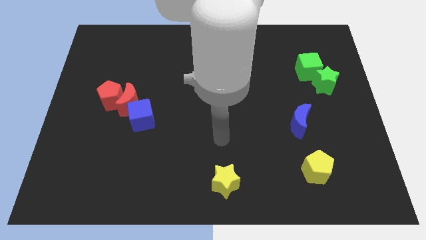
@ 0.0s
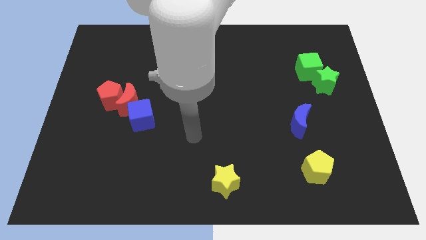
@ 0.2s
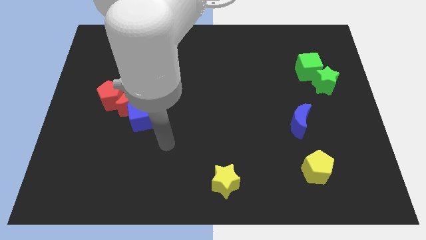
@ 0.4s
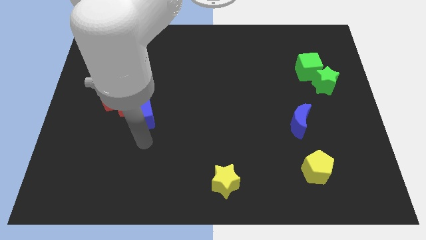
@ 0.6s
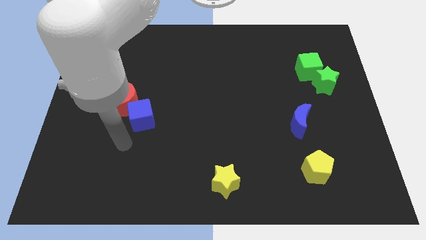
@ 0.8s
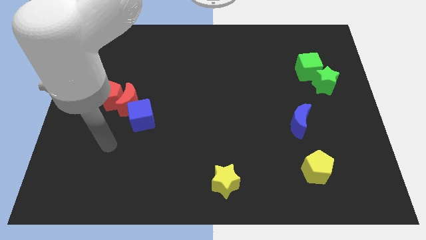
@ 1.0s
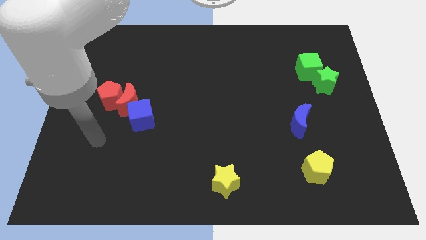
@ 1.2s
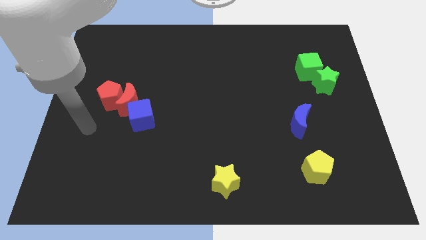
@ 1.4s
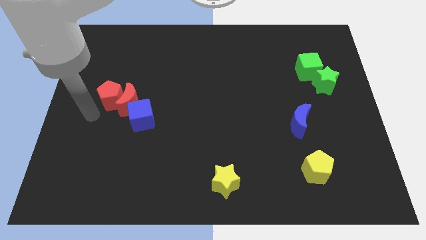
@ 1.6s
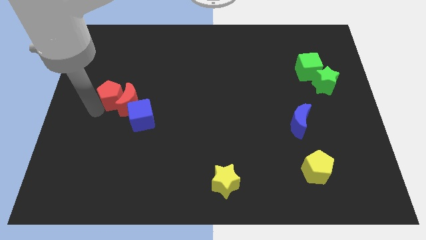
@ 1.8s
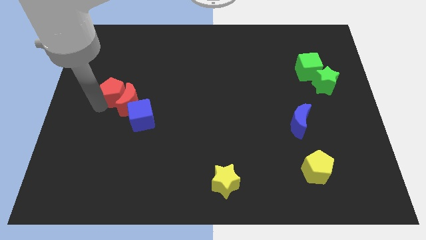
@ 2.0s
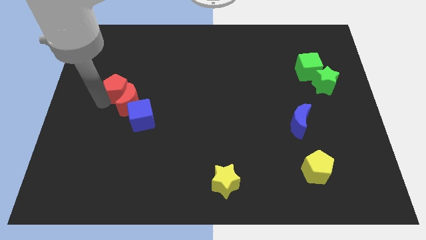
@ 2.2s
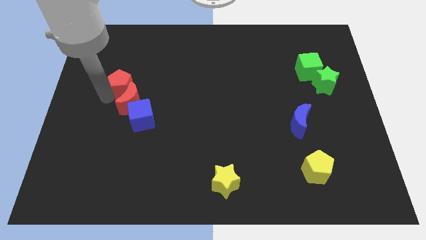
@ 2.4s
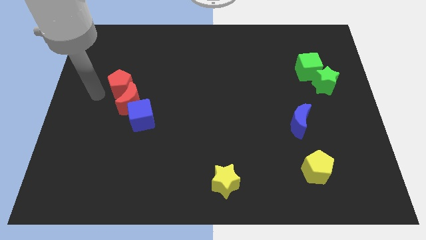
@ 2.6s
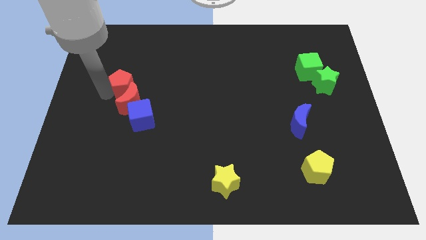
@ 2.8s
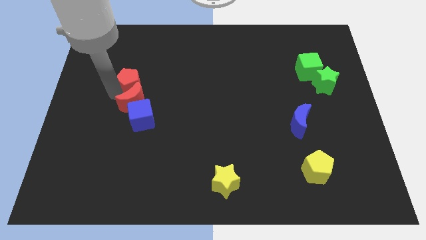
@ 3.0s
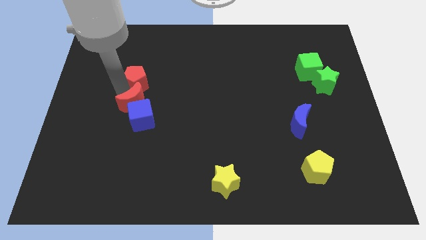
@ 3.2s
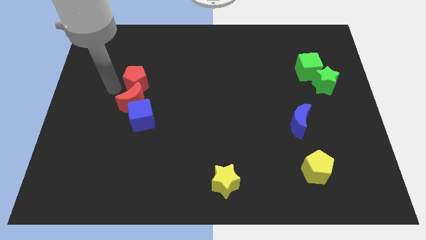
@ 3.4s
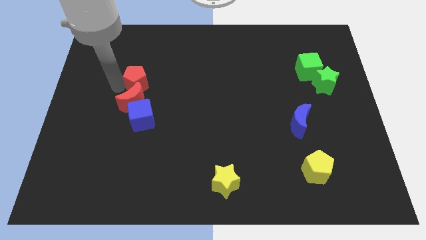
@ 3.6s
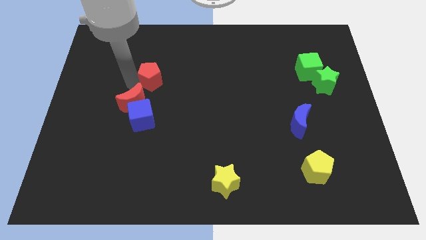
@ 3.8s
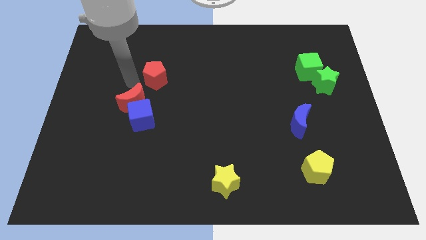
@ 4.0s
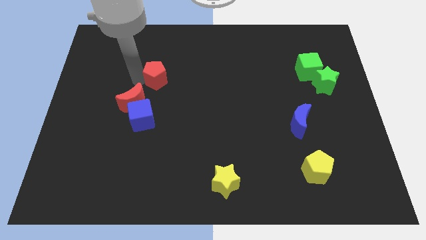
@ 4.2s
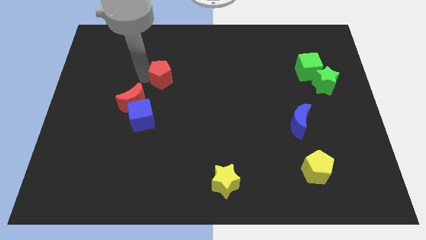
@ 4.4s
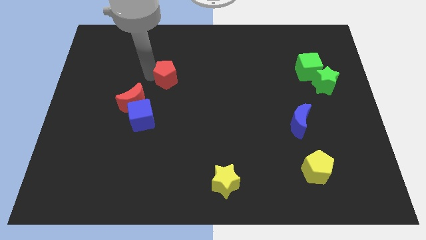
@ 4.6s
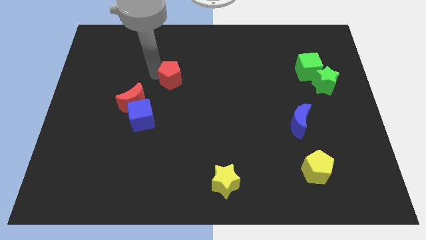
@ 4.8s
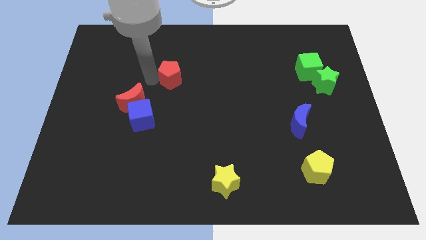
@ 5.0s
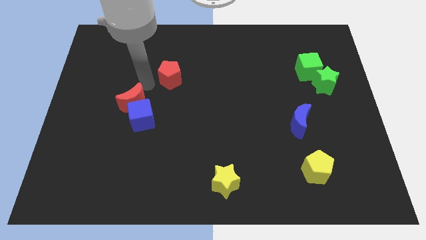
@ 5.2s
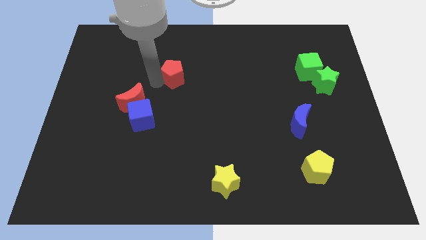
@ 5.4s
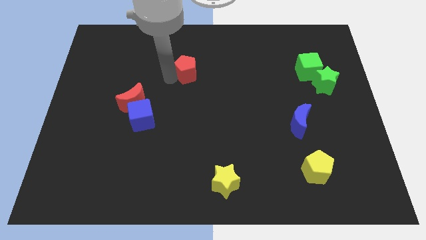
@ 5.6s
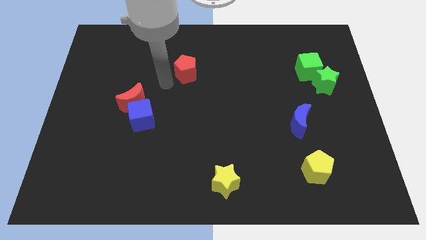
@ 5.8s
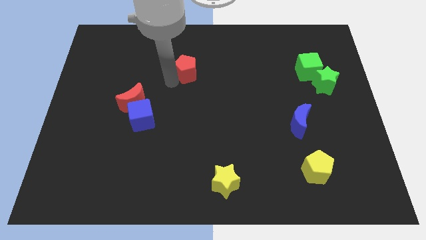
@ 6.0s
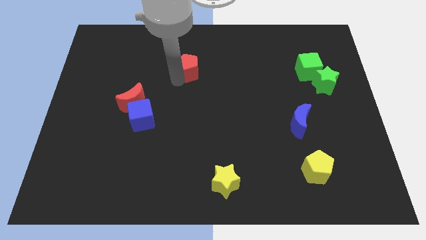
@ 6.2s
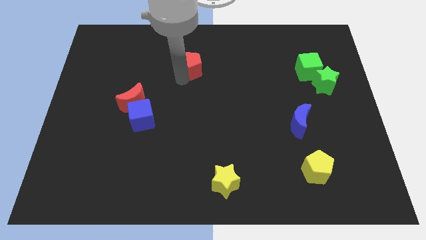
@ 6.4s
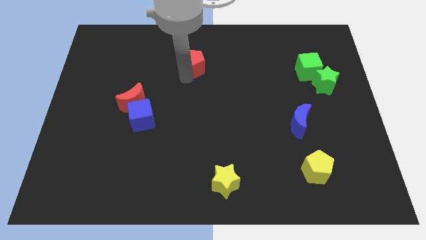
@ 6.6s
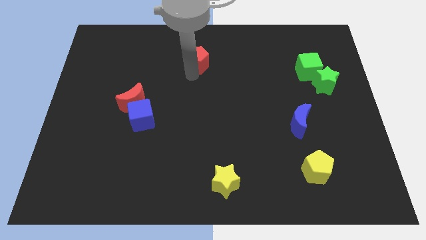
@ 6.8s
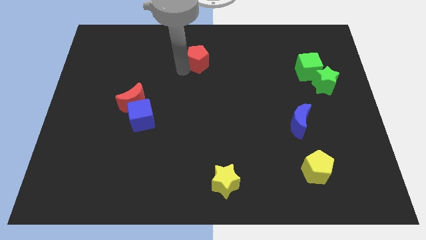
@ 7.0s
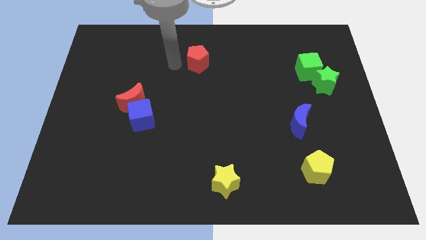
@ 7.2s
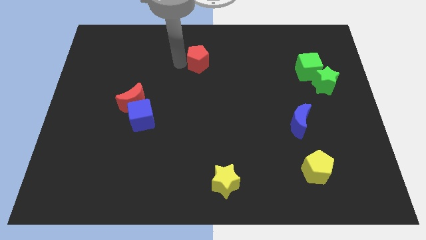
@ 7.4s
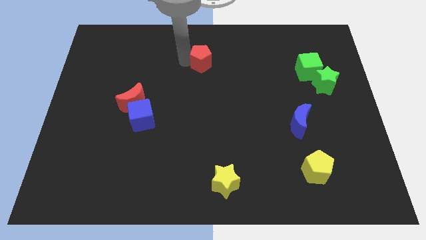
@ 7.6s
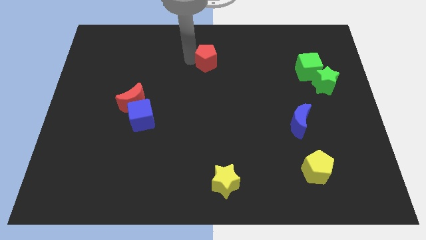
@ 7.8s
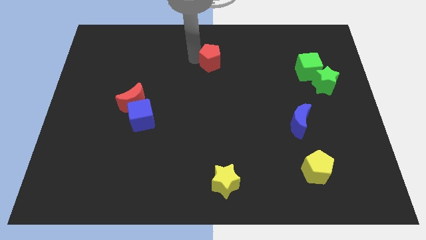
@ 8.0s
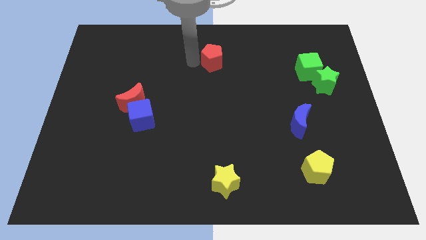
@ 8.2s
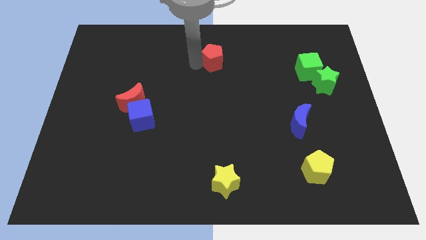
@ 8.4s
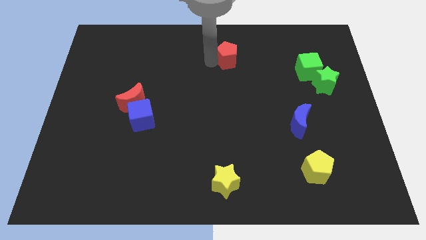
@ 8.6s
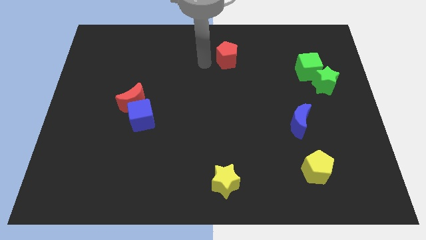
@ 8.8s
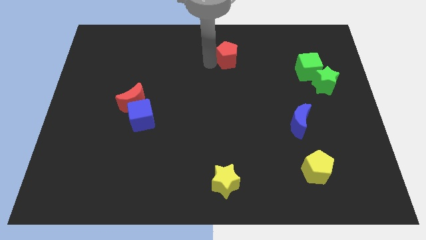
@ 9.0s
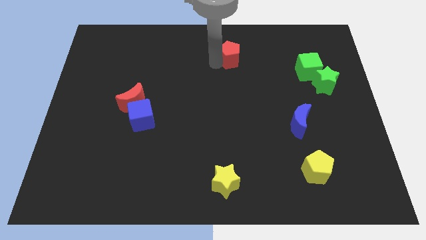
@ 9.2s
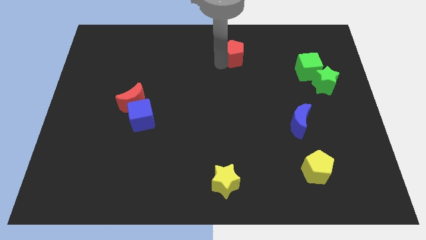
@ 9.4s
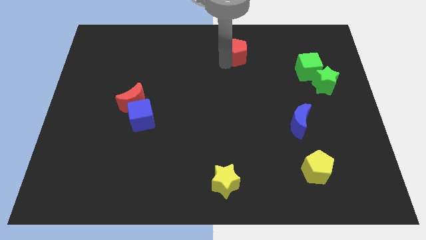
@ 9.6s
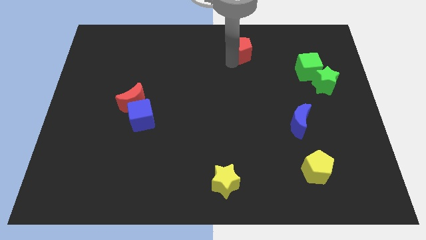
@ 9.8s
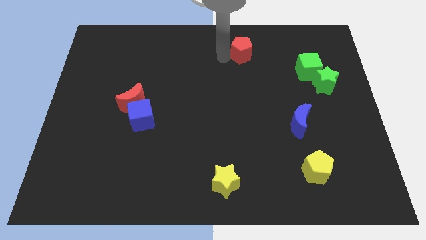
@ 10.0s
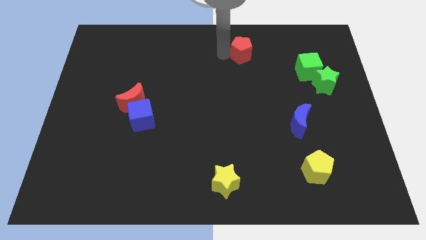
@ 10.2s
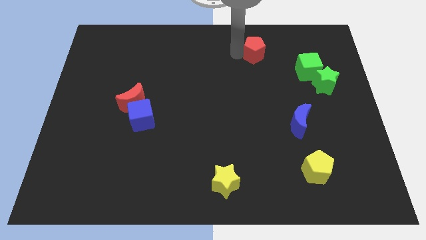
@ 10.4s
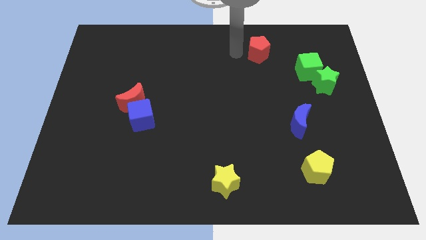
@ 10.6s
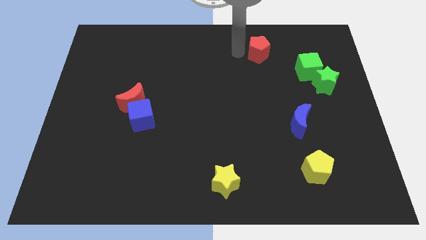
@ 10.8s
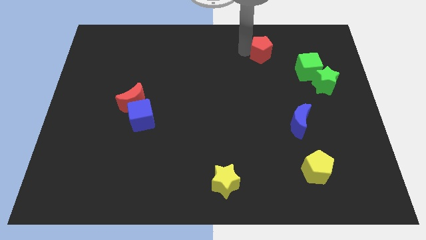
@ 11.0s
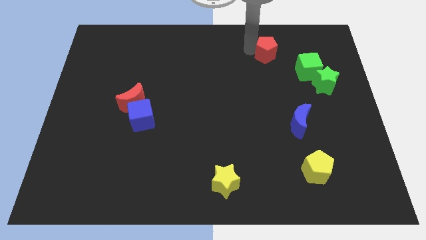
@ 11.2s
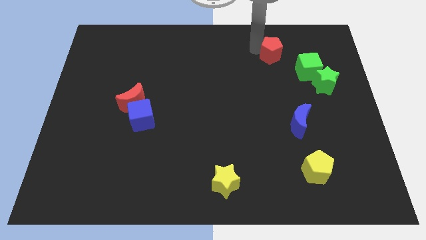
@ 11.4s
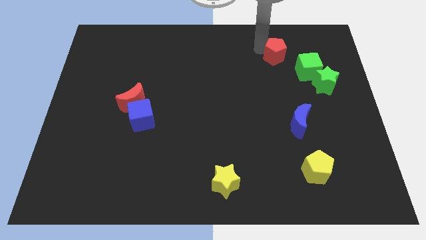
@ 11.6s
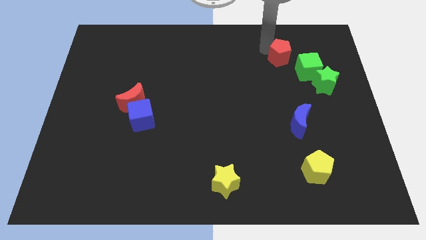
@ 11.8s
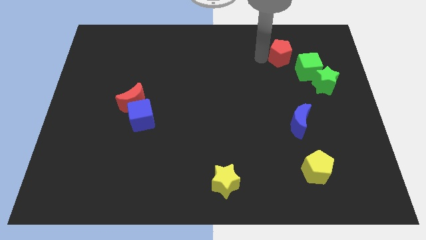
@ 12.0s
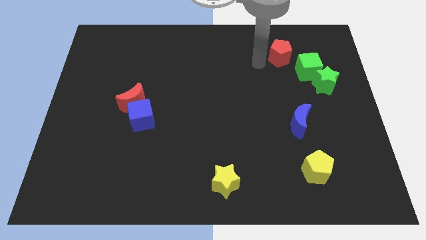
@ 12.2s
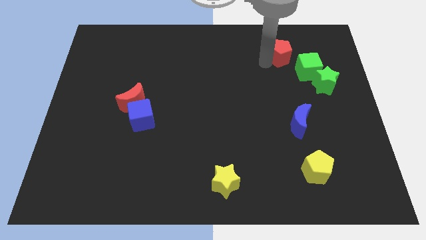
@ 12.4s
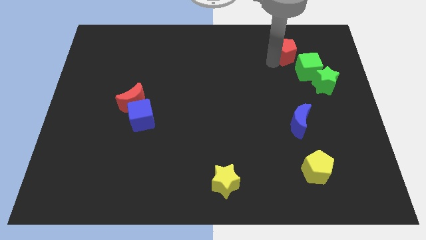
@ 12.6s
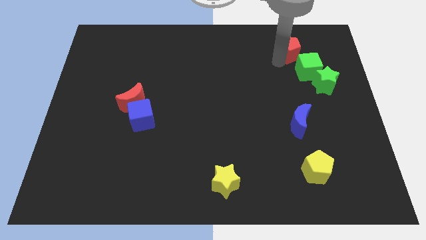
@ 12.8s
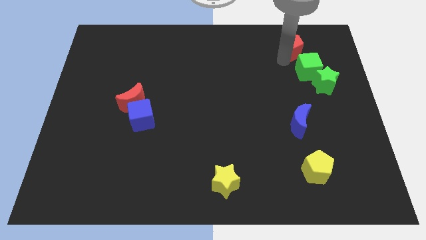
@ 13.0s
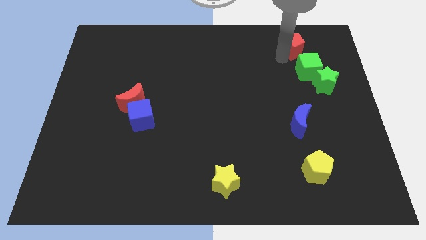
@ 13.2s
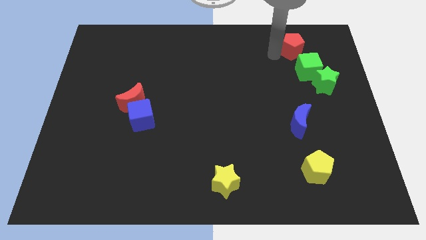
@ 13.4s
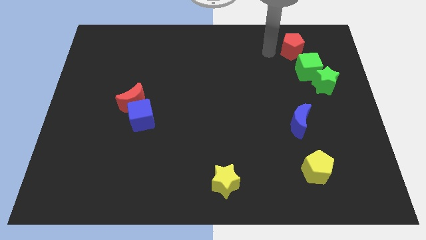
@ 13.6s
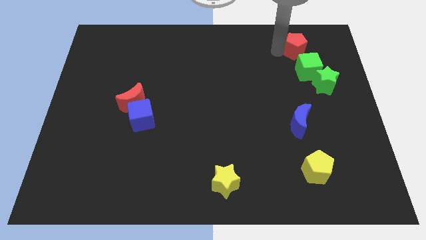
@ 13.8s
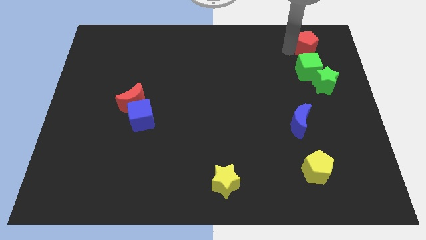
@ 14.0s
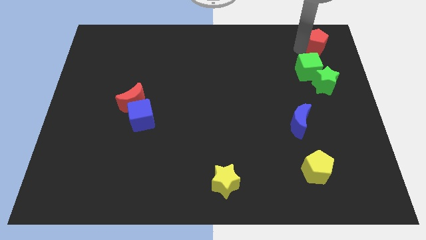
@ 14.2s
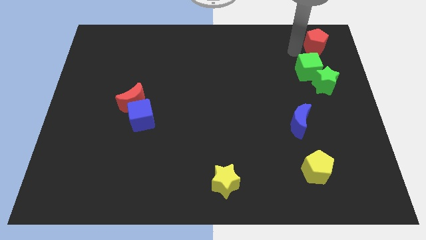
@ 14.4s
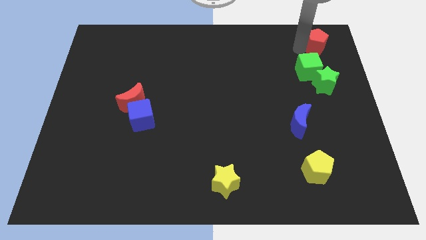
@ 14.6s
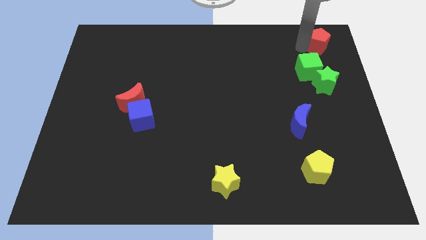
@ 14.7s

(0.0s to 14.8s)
put the red pentagon to the top right corner
